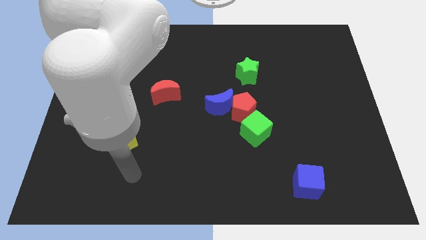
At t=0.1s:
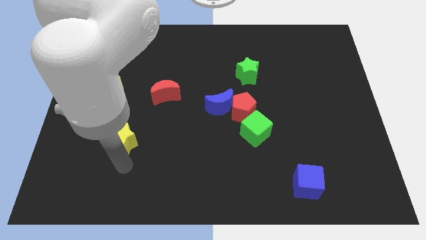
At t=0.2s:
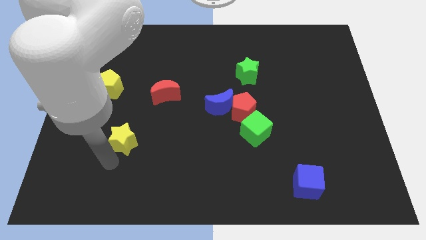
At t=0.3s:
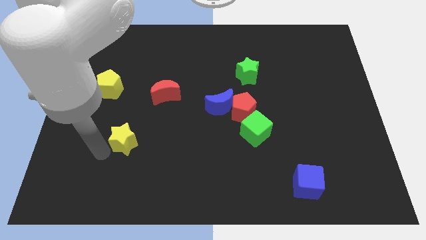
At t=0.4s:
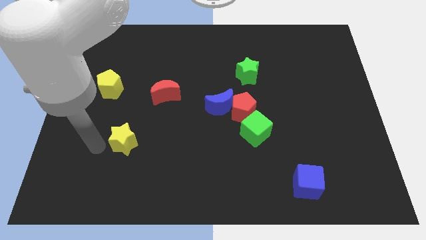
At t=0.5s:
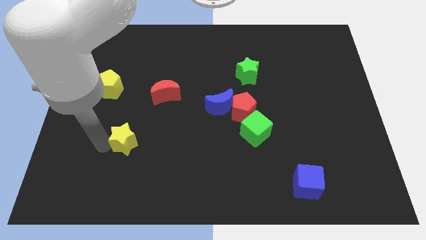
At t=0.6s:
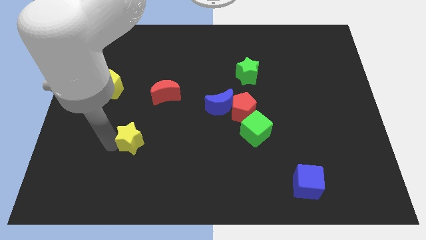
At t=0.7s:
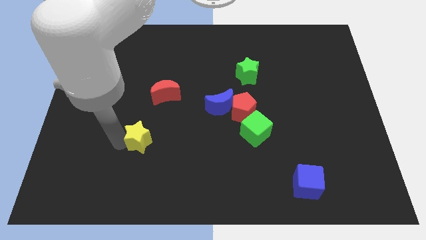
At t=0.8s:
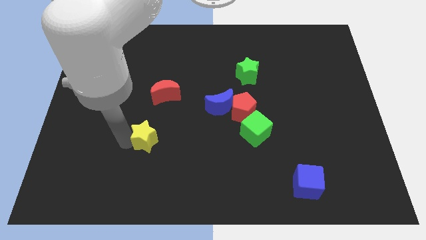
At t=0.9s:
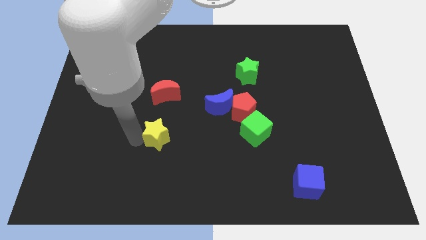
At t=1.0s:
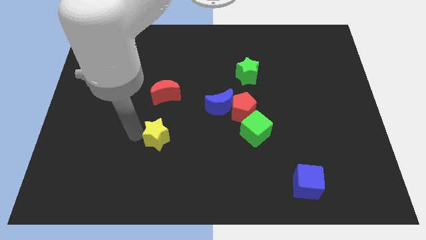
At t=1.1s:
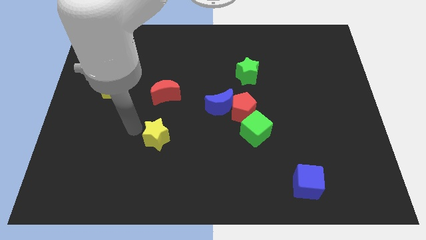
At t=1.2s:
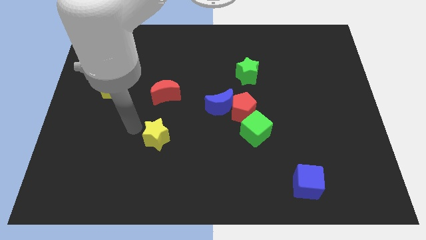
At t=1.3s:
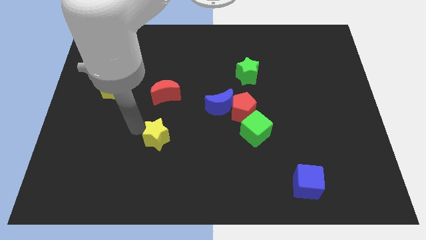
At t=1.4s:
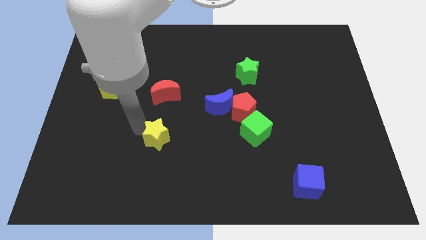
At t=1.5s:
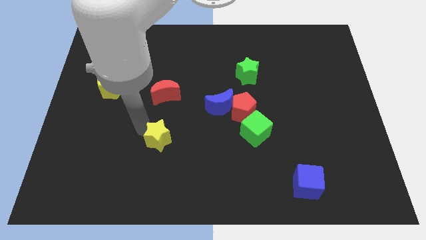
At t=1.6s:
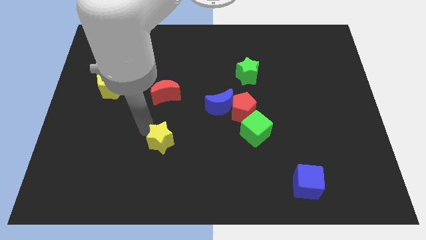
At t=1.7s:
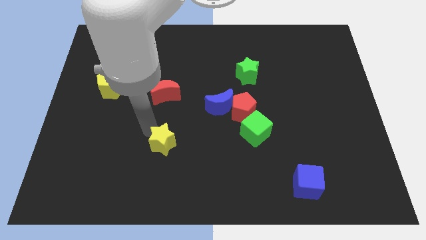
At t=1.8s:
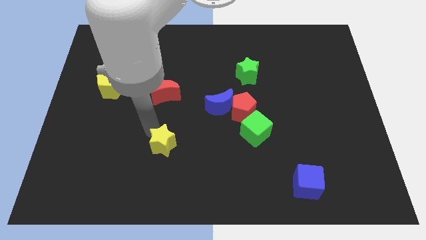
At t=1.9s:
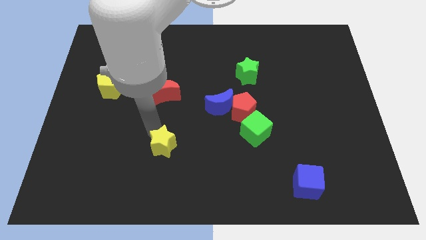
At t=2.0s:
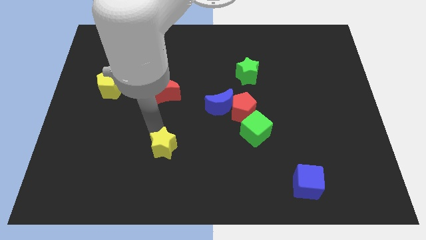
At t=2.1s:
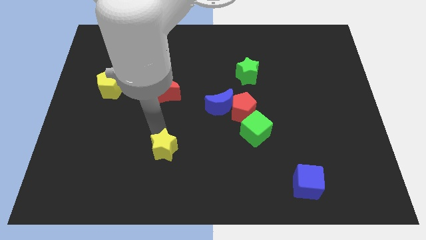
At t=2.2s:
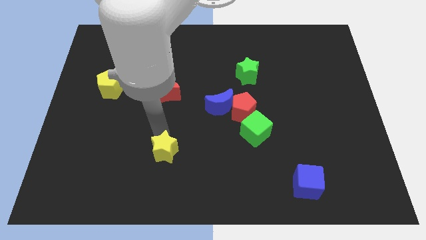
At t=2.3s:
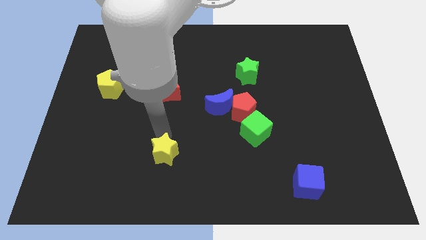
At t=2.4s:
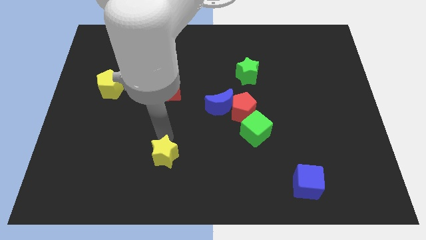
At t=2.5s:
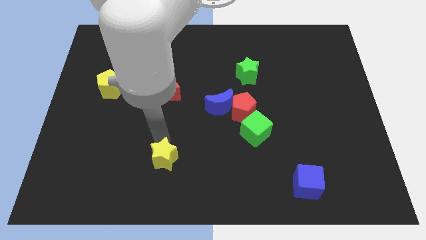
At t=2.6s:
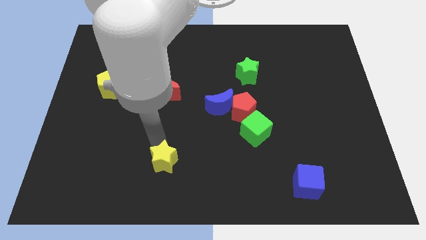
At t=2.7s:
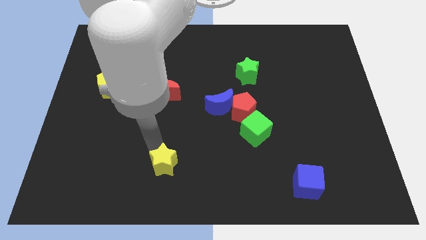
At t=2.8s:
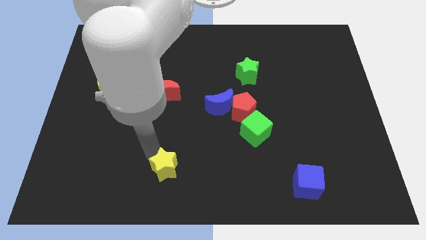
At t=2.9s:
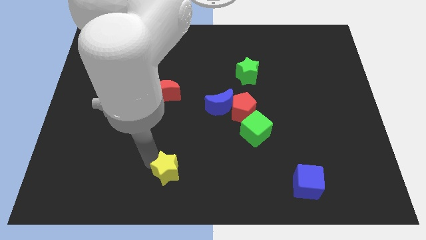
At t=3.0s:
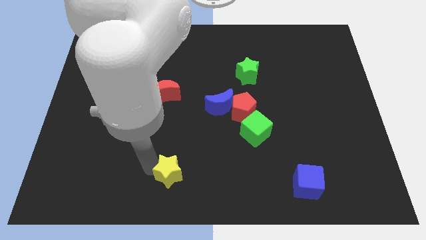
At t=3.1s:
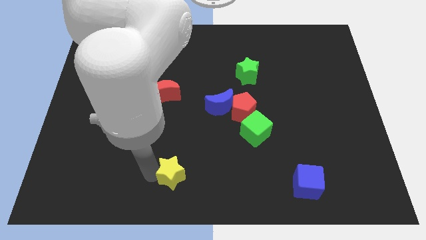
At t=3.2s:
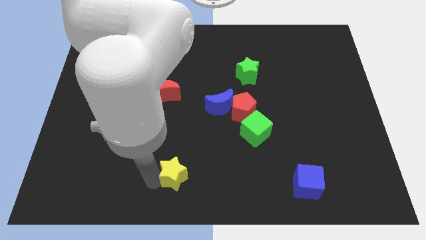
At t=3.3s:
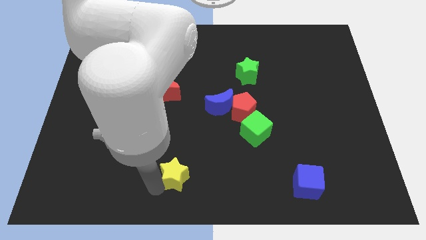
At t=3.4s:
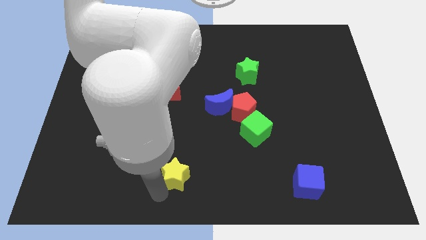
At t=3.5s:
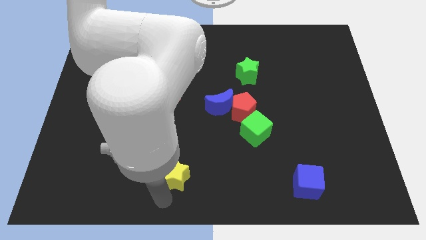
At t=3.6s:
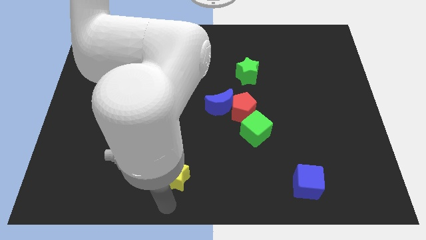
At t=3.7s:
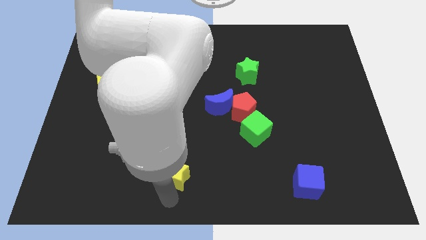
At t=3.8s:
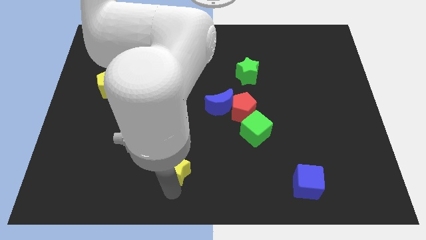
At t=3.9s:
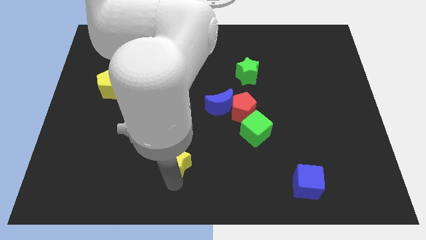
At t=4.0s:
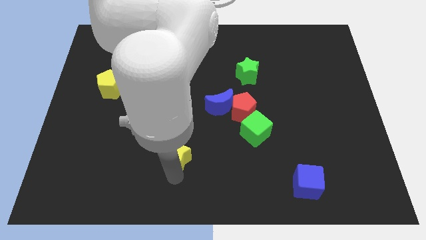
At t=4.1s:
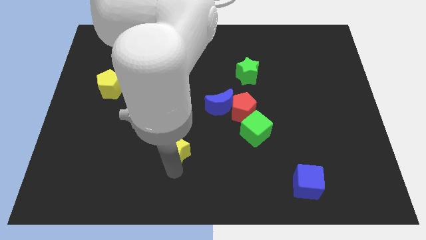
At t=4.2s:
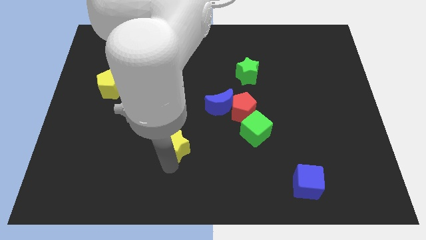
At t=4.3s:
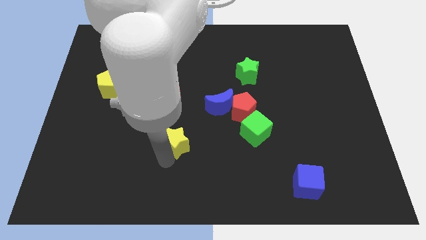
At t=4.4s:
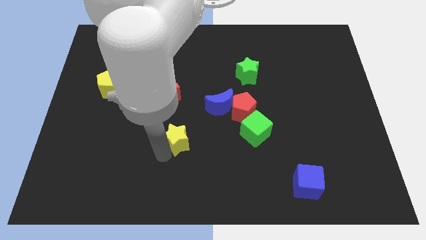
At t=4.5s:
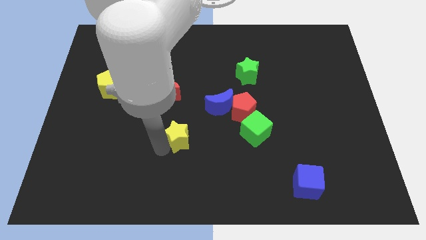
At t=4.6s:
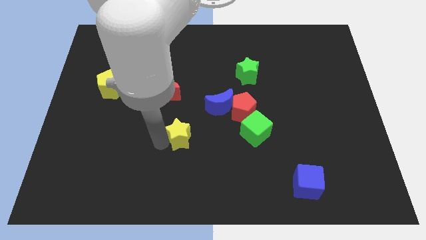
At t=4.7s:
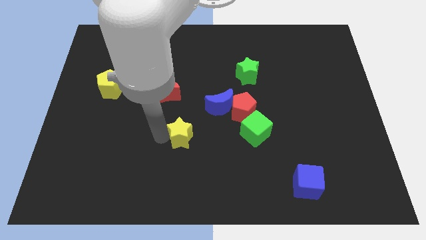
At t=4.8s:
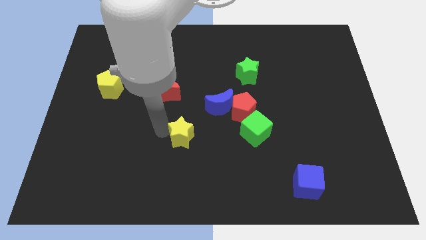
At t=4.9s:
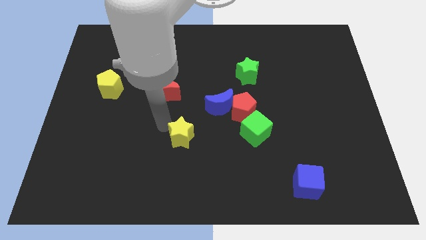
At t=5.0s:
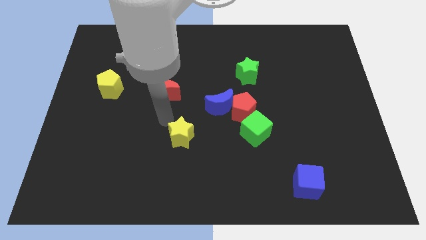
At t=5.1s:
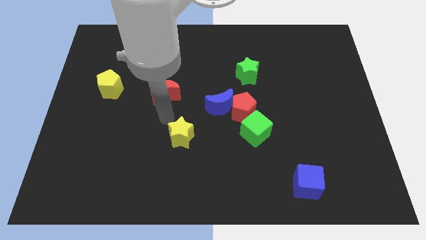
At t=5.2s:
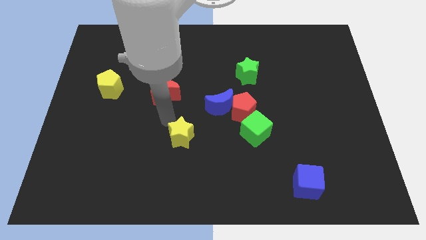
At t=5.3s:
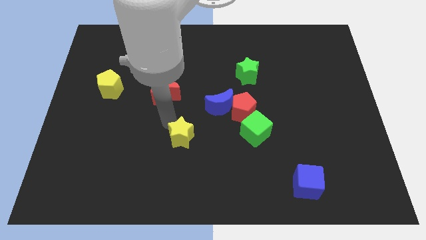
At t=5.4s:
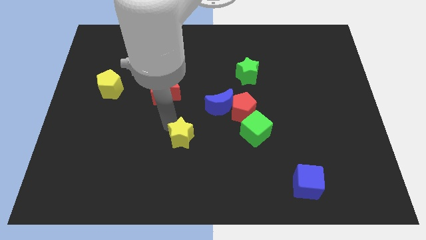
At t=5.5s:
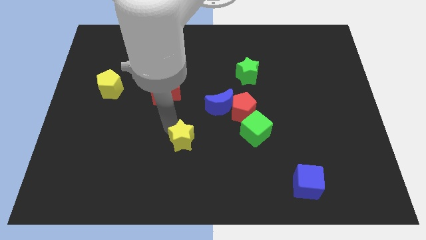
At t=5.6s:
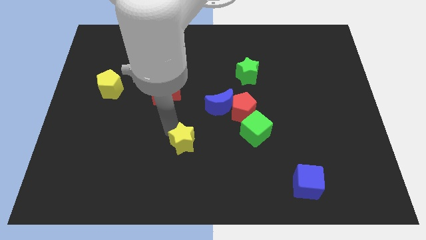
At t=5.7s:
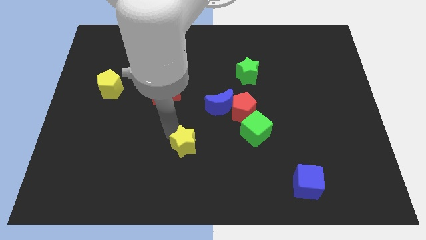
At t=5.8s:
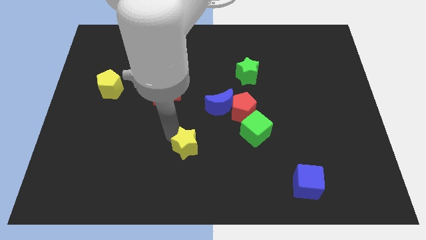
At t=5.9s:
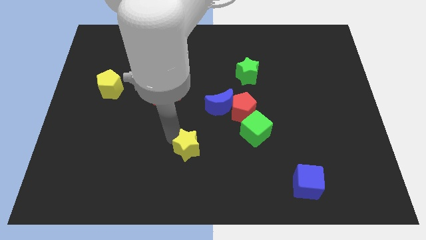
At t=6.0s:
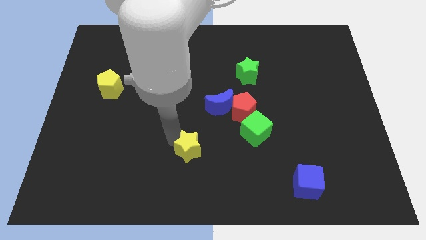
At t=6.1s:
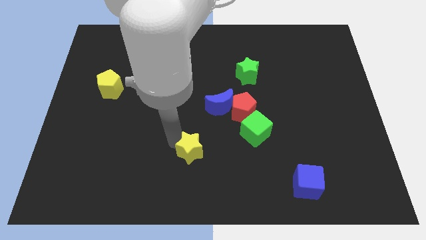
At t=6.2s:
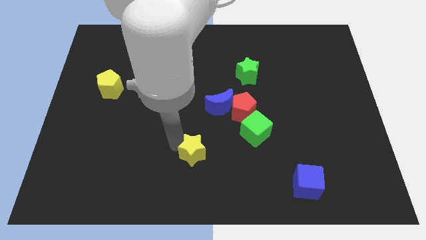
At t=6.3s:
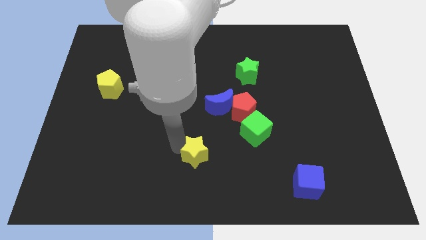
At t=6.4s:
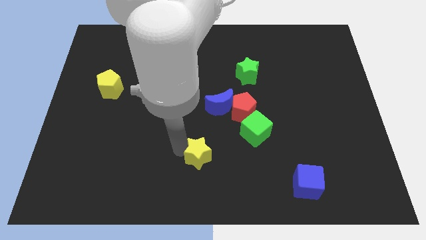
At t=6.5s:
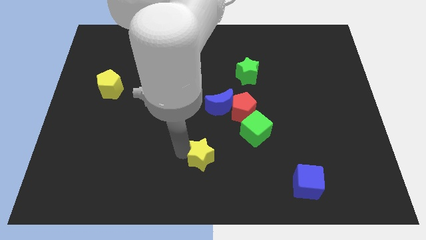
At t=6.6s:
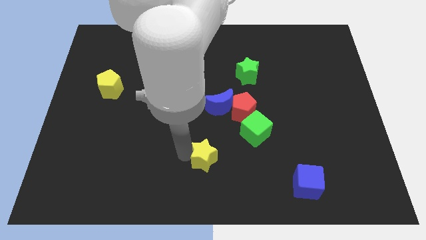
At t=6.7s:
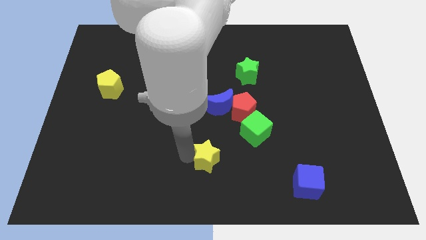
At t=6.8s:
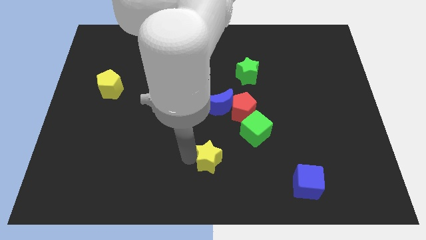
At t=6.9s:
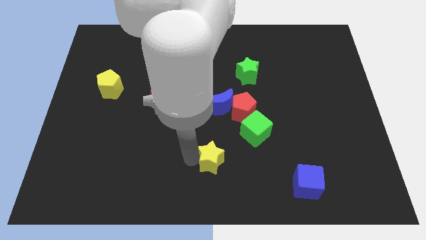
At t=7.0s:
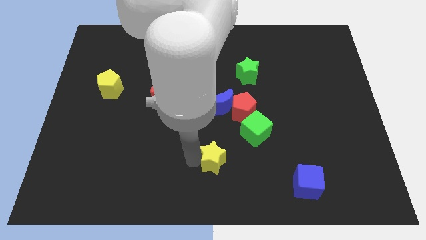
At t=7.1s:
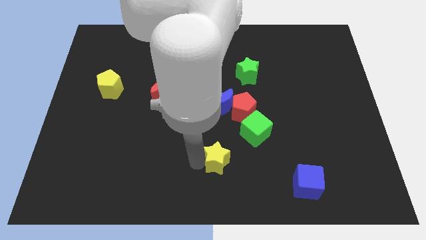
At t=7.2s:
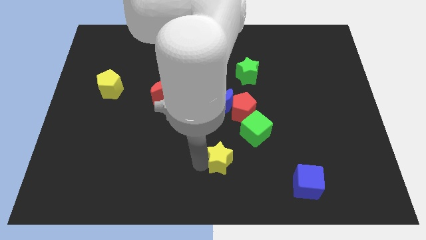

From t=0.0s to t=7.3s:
move the yellow star right

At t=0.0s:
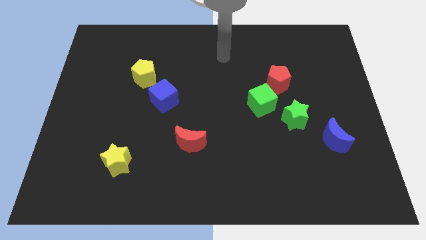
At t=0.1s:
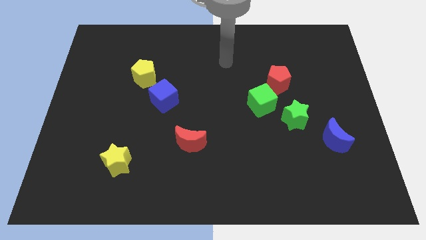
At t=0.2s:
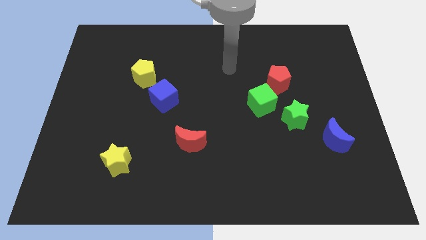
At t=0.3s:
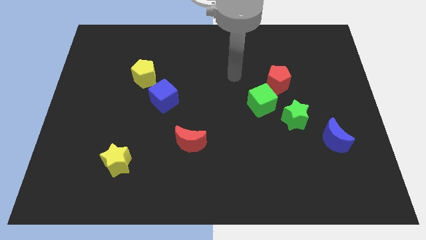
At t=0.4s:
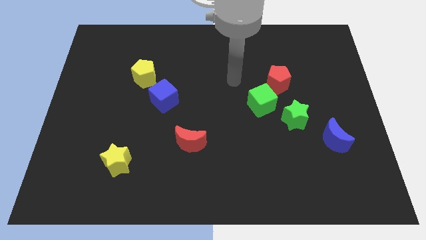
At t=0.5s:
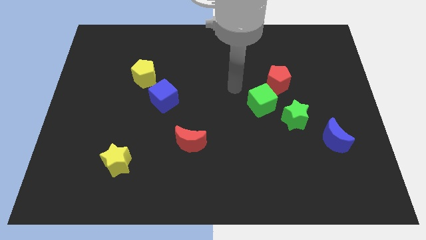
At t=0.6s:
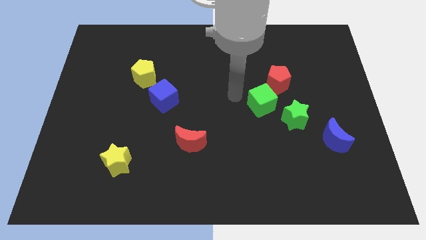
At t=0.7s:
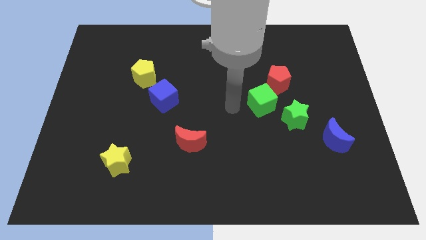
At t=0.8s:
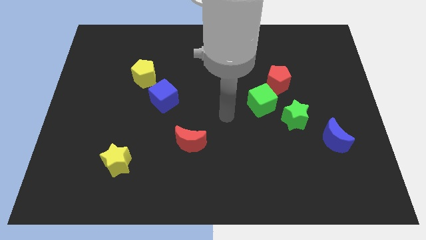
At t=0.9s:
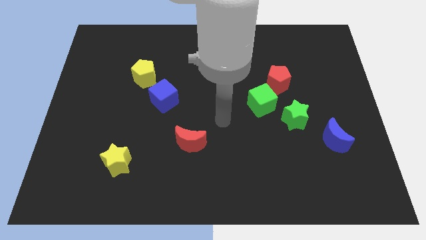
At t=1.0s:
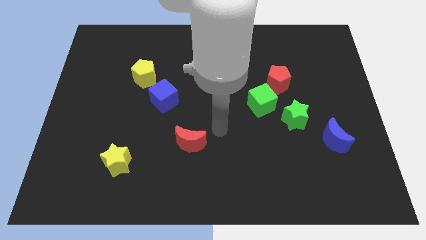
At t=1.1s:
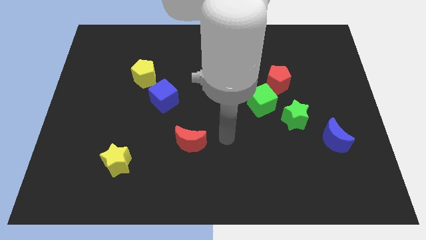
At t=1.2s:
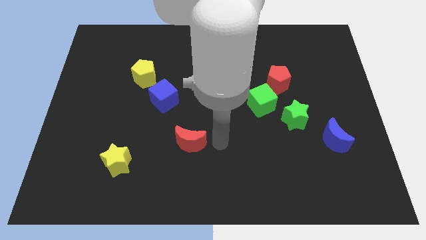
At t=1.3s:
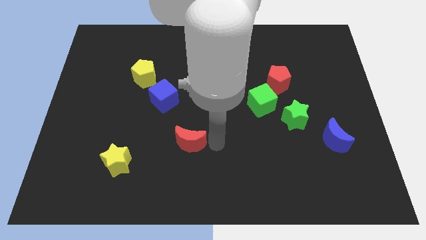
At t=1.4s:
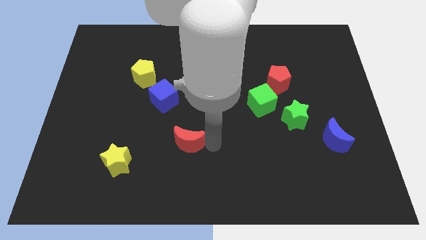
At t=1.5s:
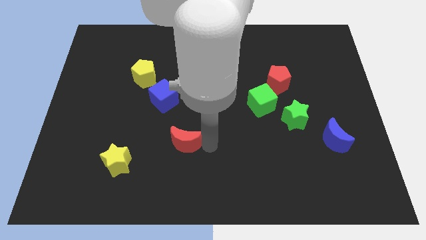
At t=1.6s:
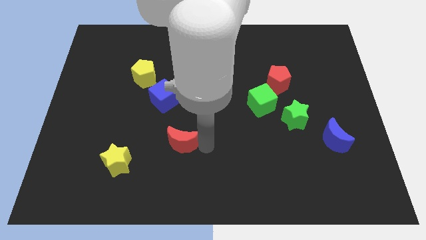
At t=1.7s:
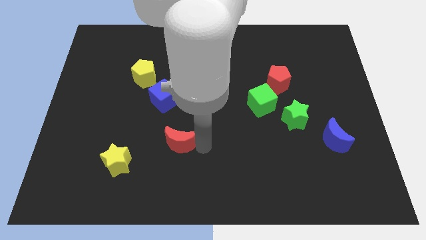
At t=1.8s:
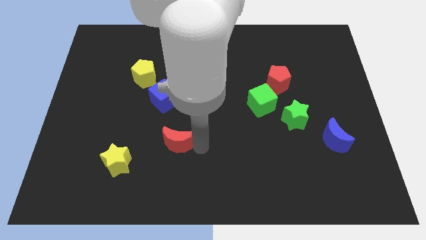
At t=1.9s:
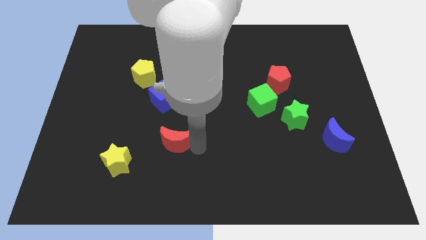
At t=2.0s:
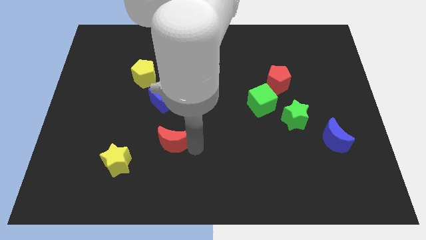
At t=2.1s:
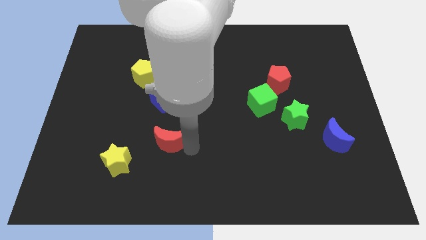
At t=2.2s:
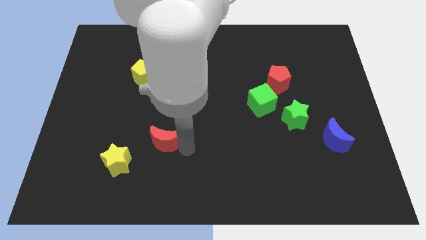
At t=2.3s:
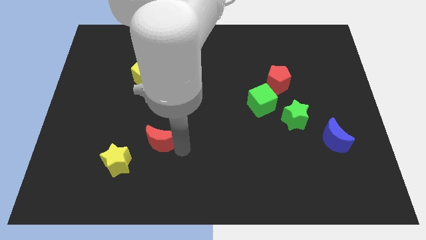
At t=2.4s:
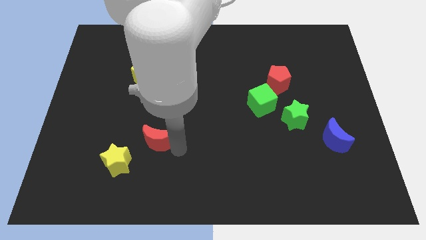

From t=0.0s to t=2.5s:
move the red moon a little to the left
